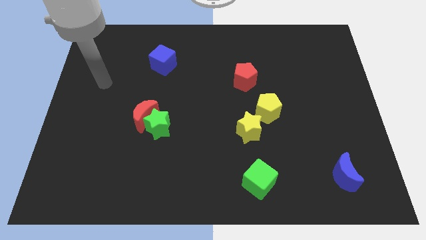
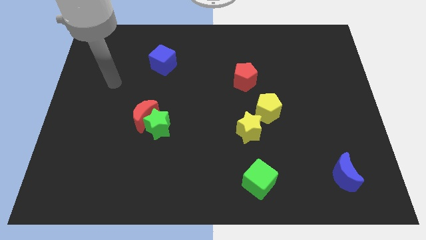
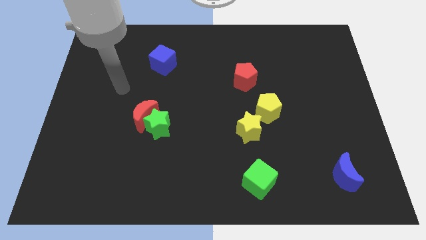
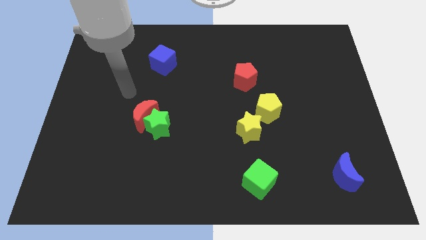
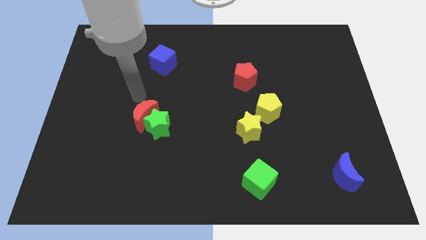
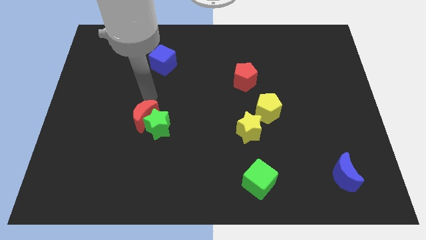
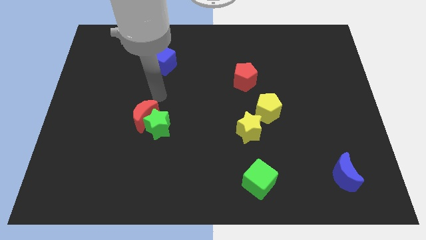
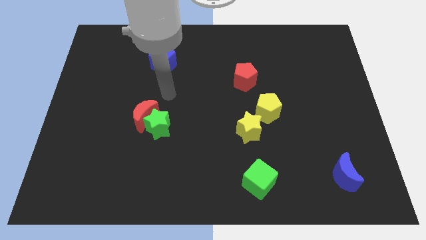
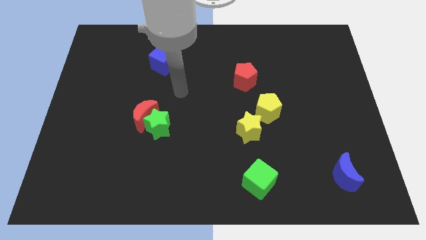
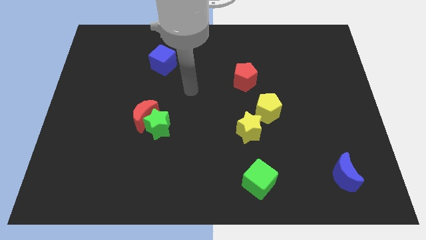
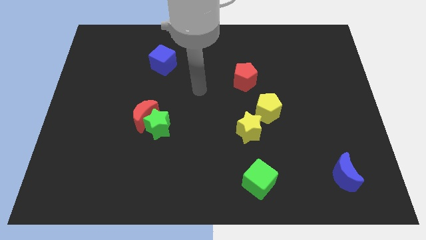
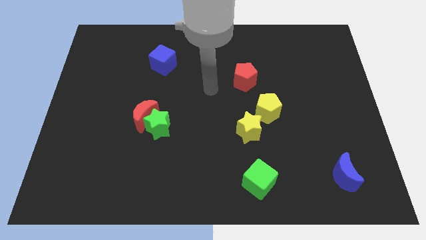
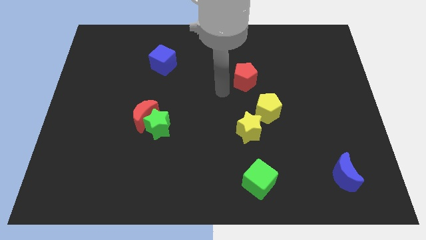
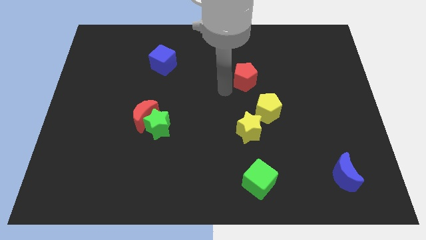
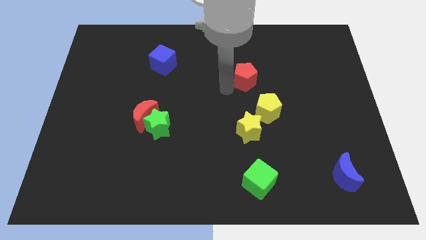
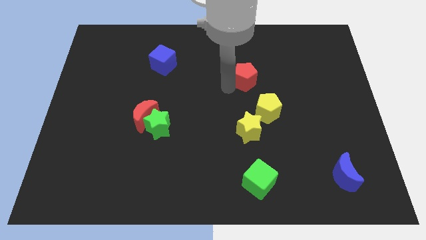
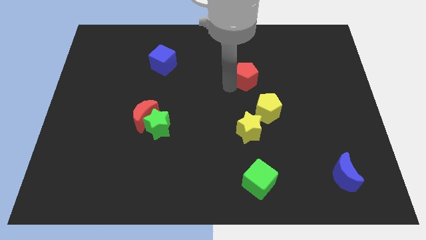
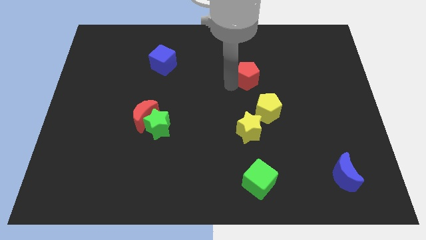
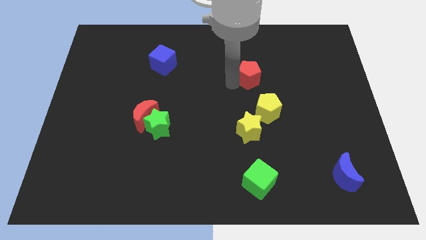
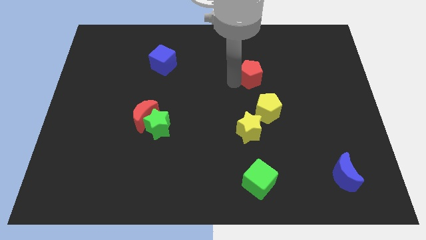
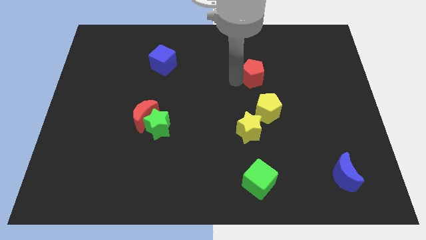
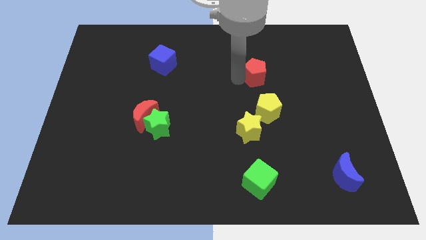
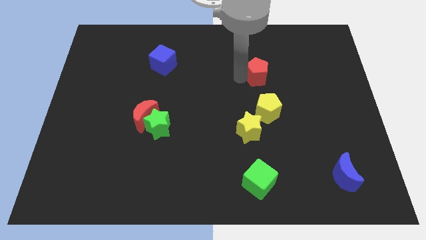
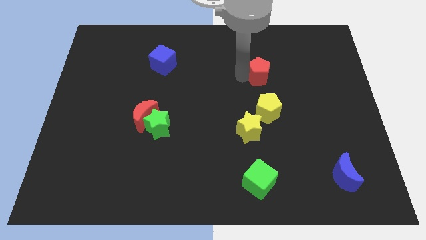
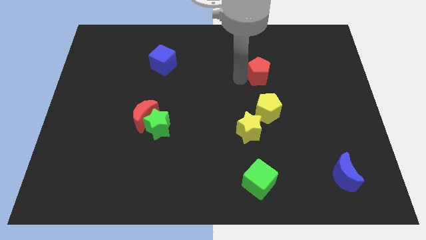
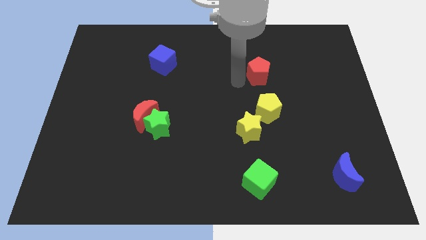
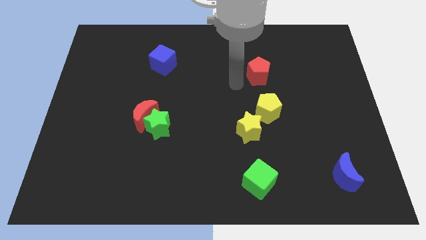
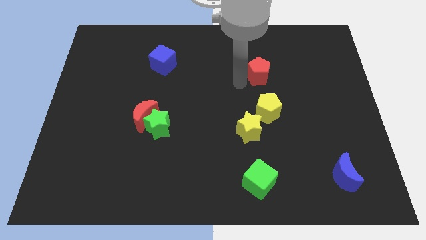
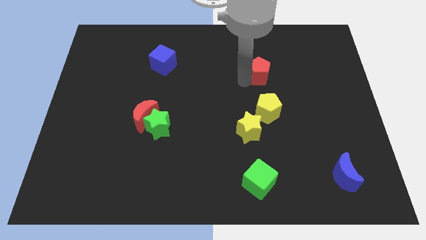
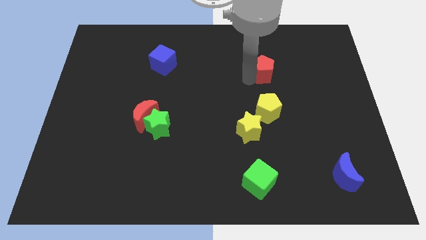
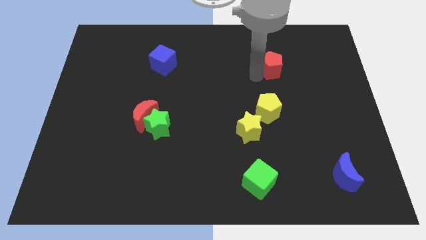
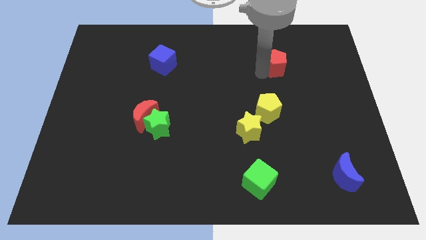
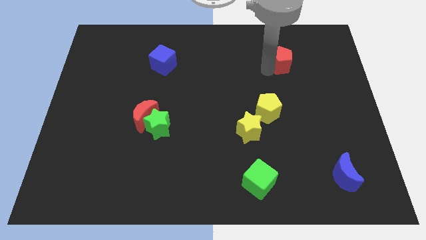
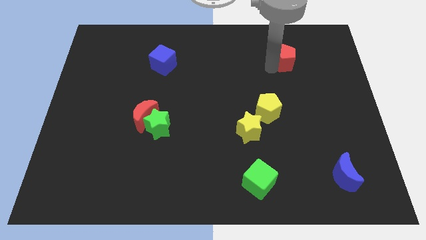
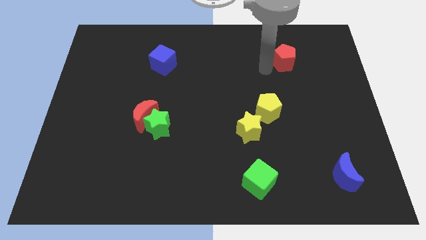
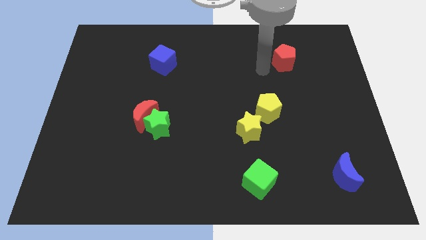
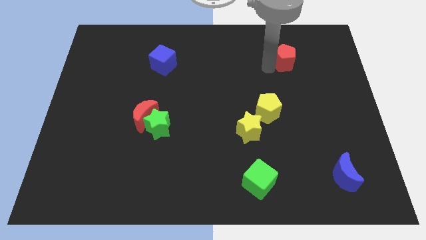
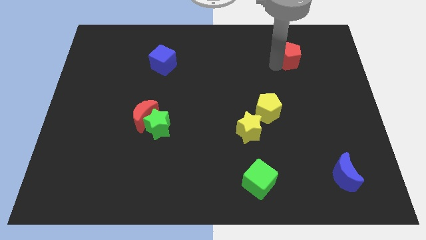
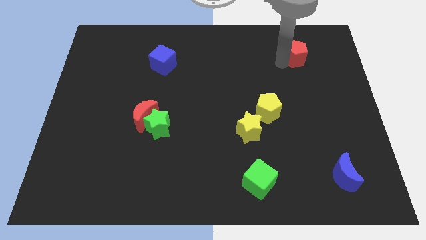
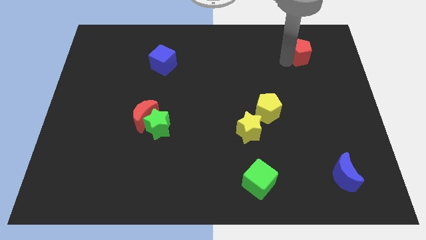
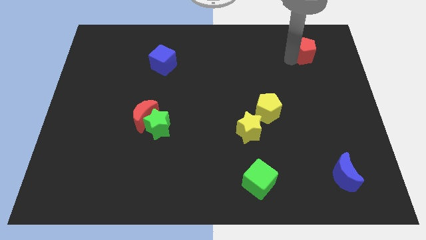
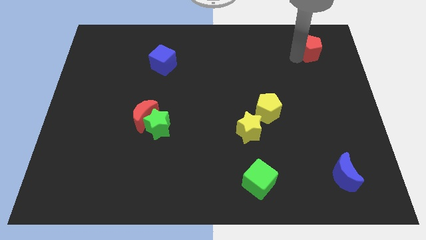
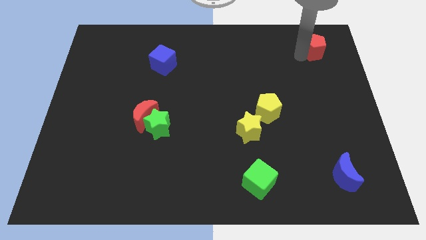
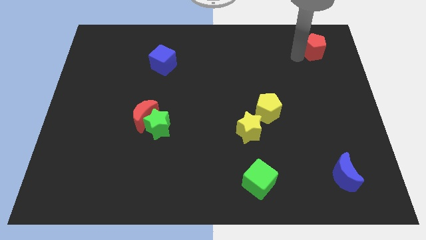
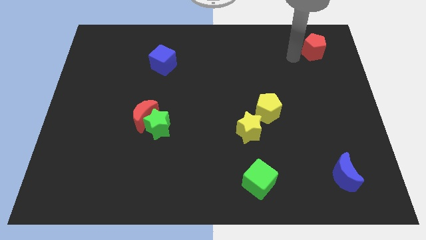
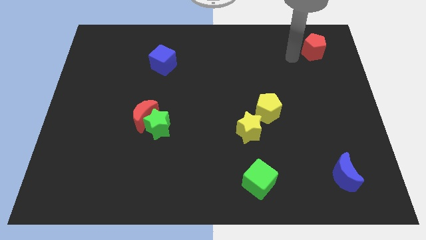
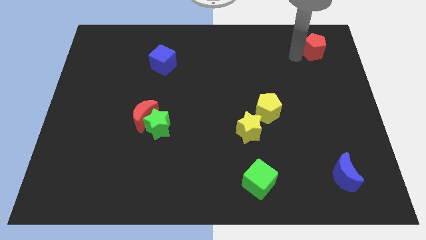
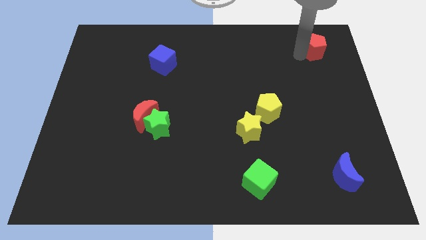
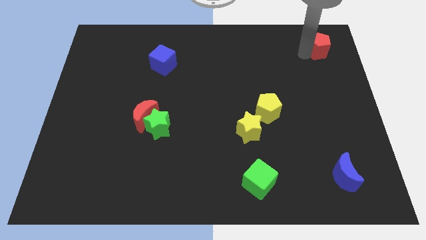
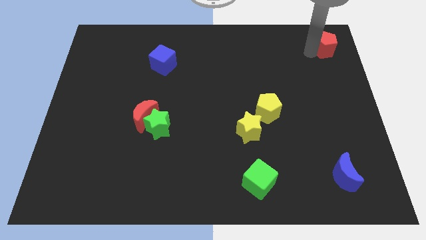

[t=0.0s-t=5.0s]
move the red pentagon to the top right

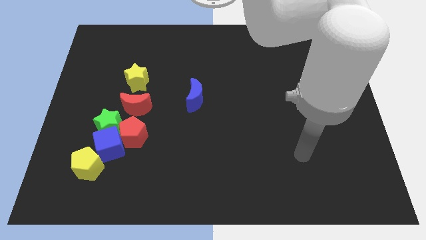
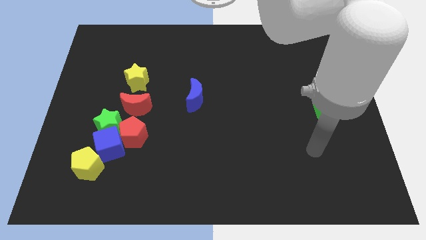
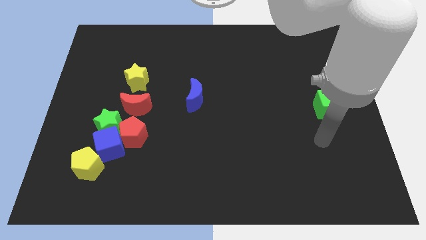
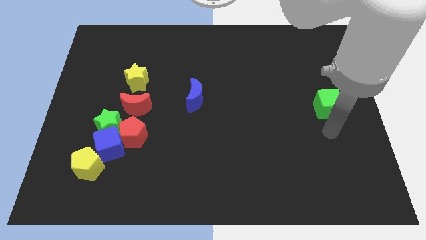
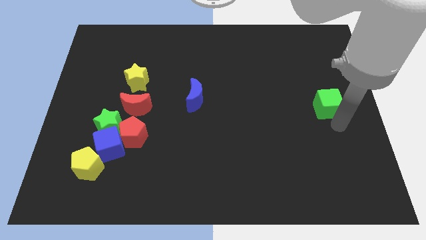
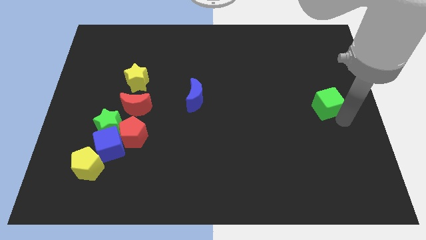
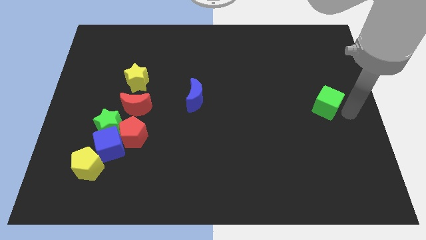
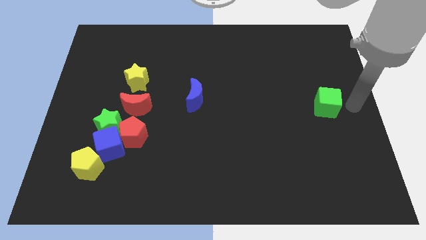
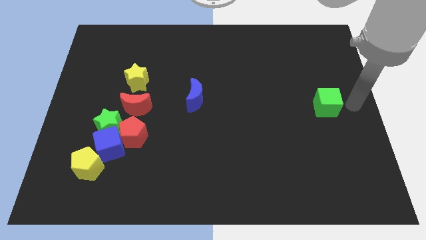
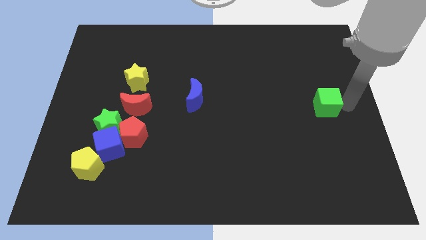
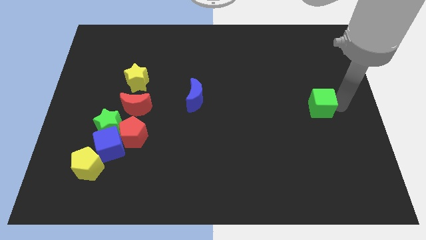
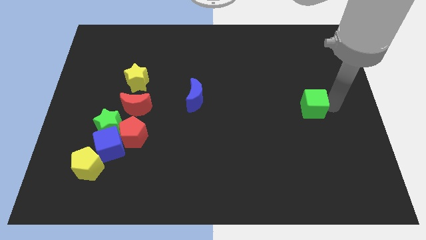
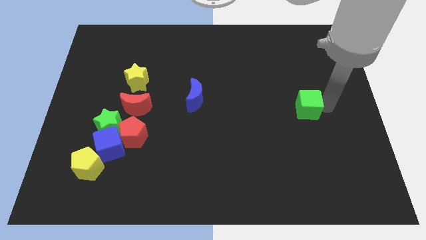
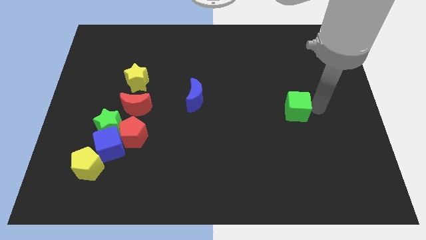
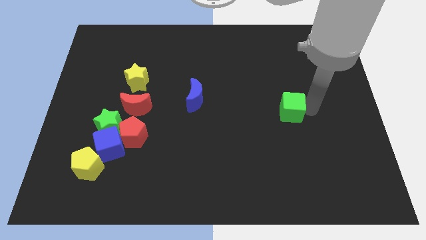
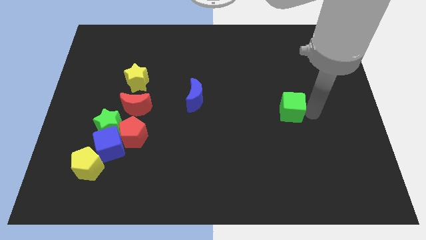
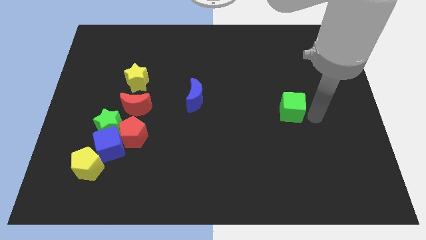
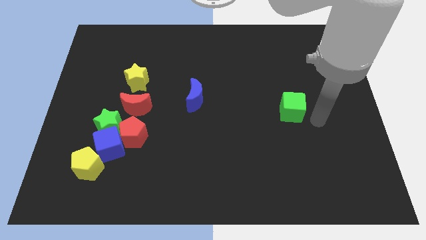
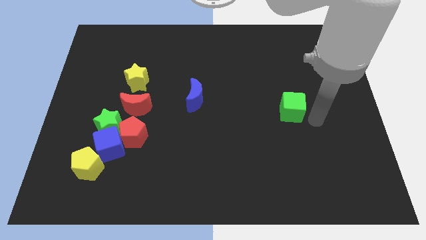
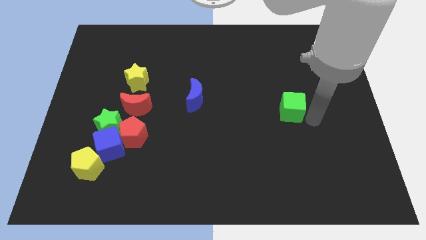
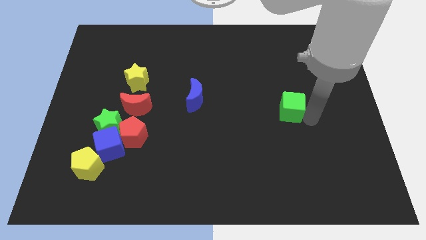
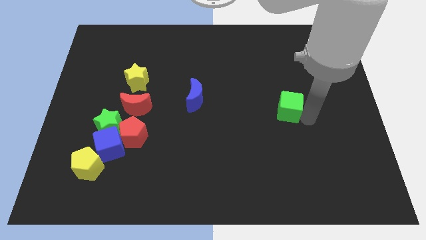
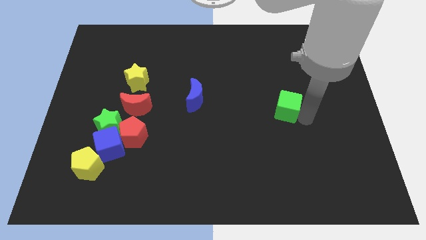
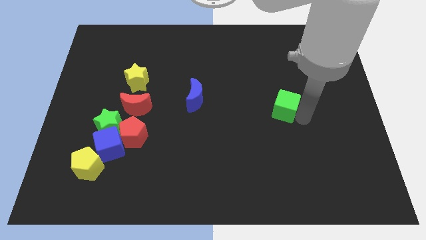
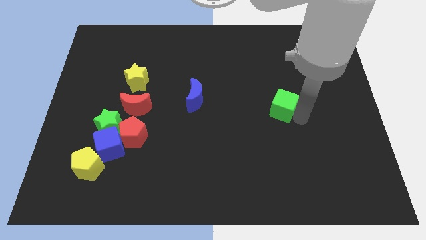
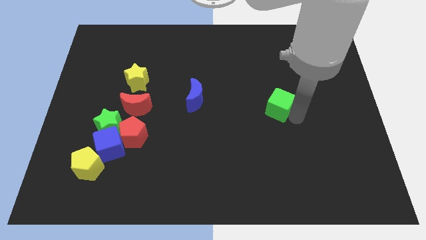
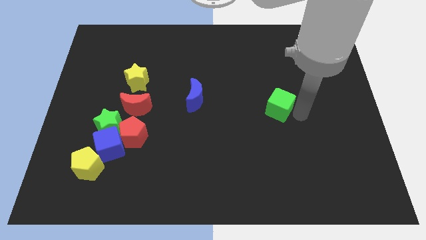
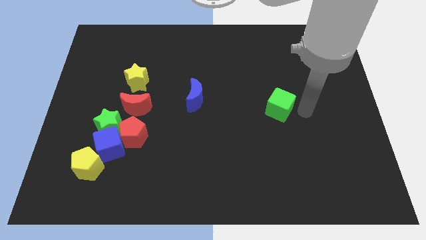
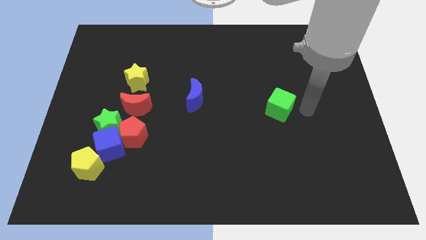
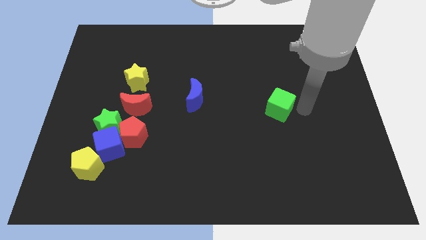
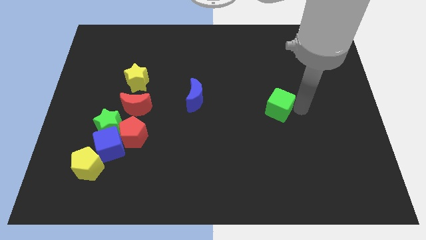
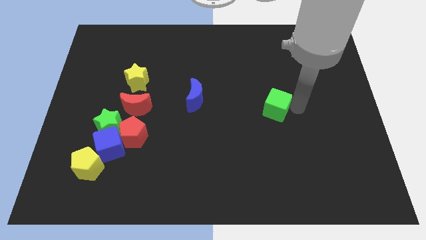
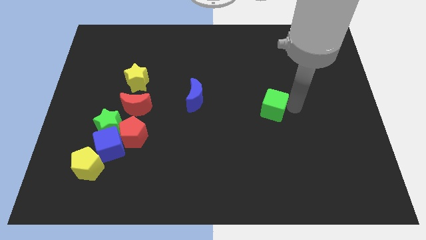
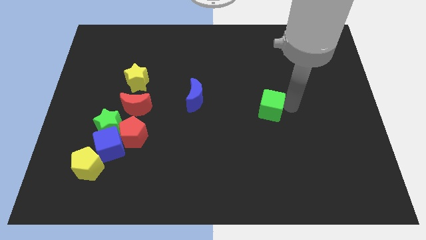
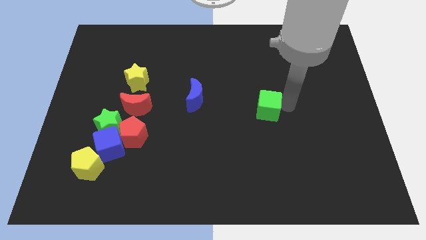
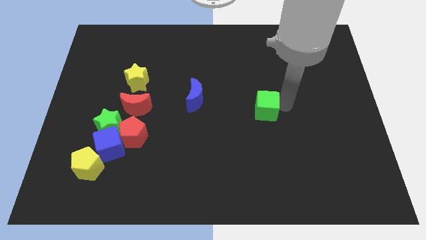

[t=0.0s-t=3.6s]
slide the green cube to the center
